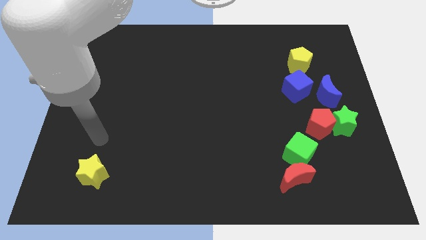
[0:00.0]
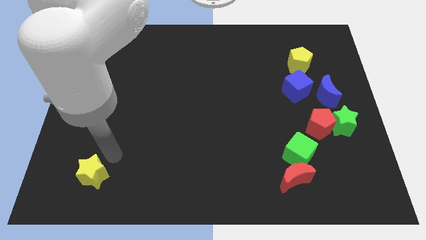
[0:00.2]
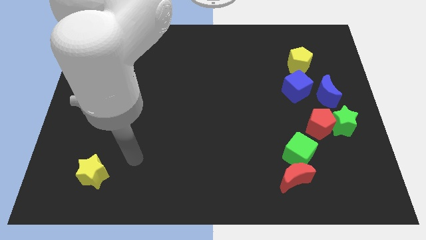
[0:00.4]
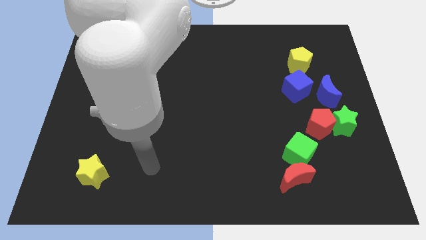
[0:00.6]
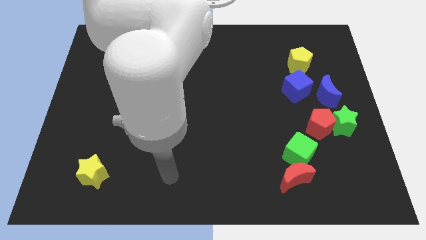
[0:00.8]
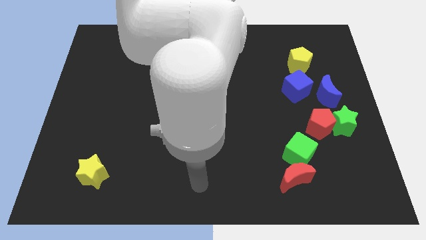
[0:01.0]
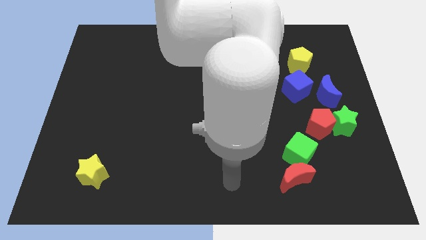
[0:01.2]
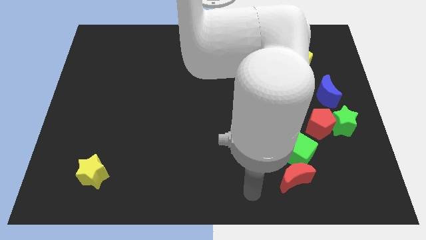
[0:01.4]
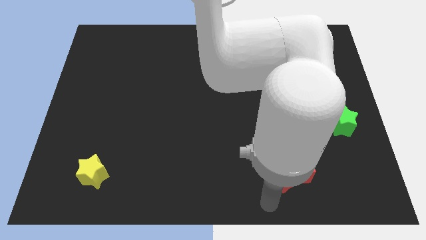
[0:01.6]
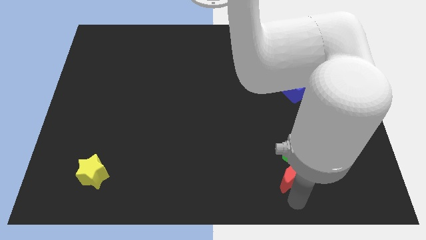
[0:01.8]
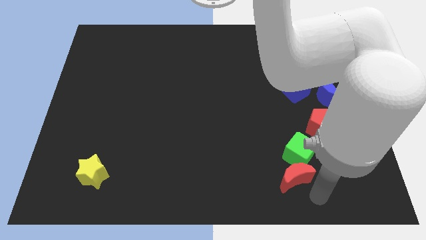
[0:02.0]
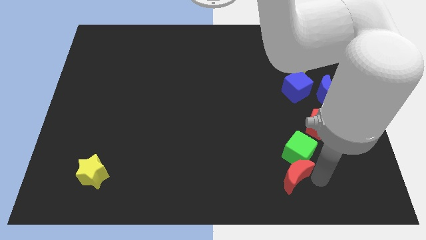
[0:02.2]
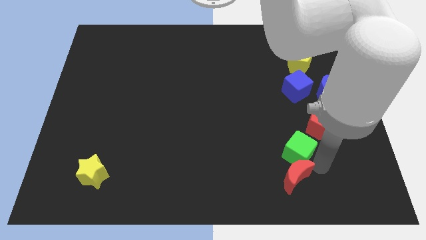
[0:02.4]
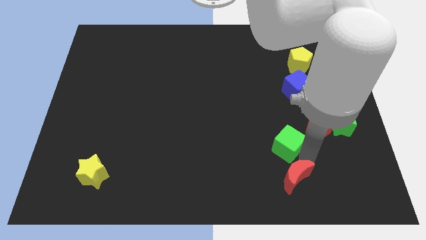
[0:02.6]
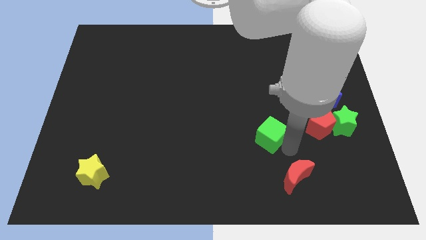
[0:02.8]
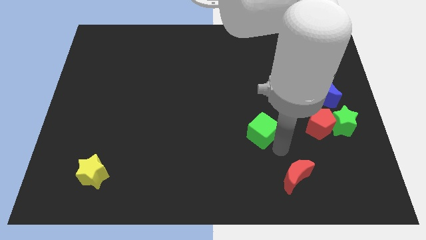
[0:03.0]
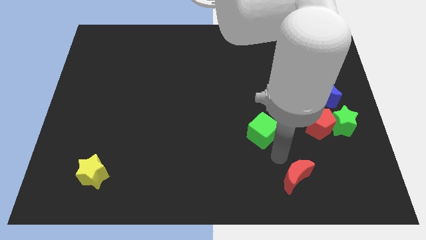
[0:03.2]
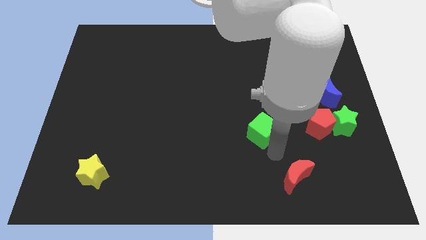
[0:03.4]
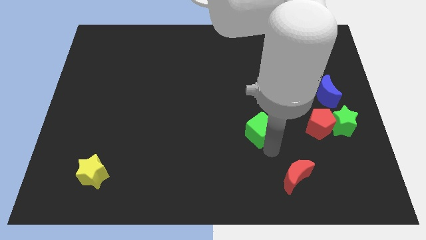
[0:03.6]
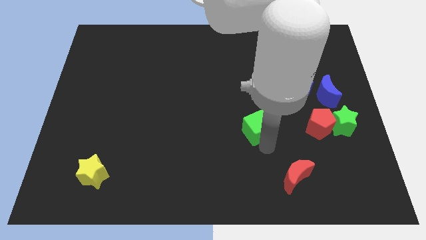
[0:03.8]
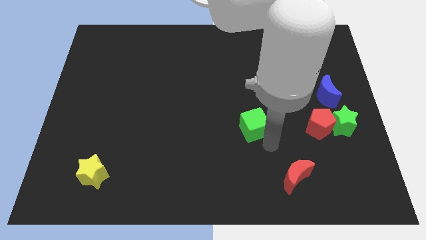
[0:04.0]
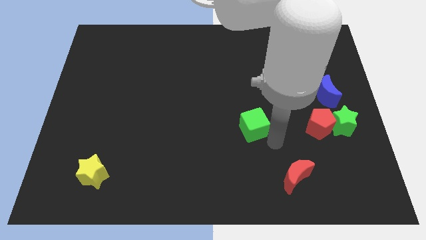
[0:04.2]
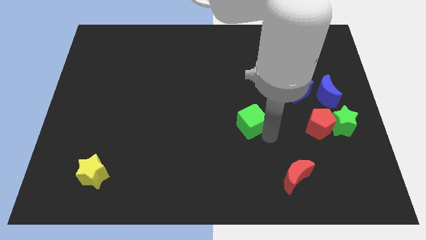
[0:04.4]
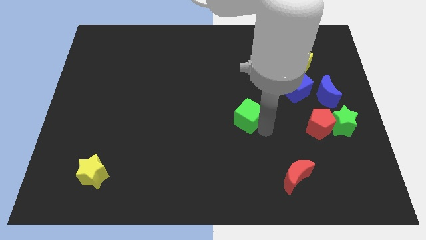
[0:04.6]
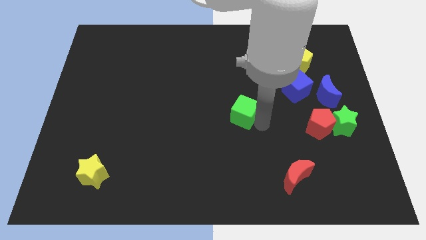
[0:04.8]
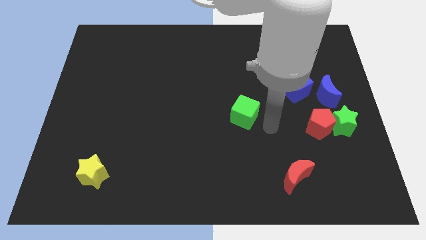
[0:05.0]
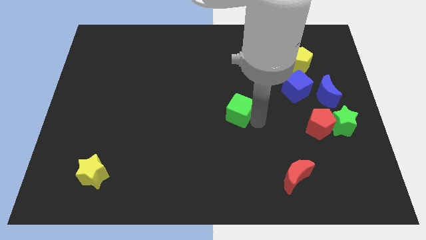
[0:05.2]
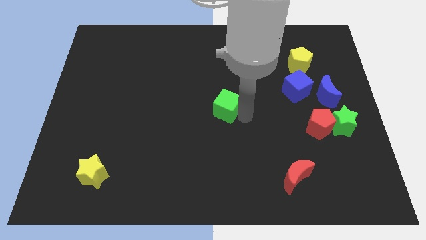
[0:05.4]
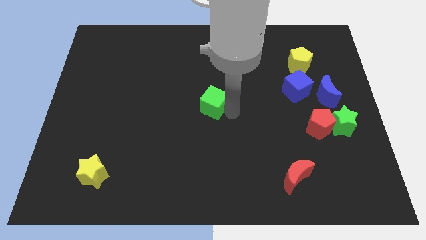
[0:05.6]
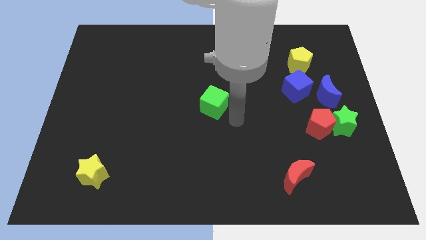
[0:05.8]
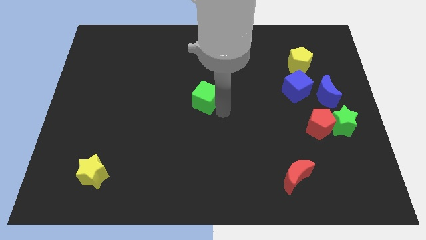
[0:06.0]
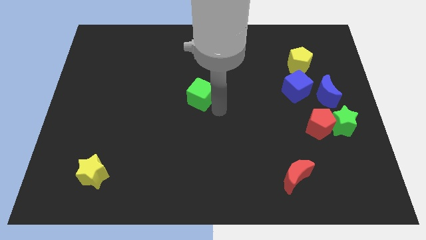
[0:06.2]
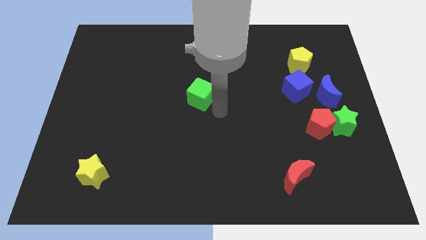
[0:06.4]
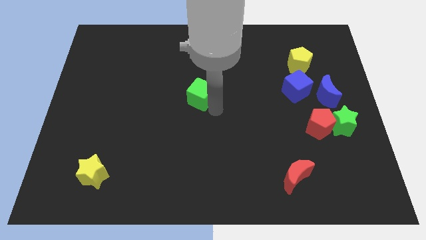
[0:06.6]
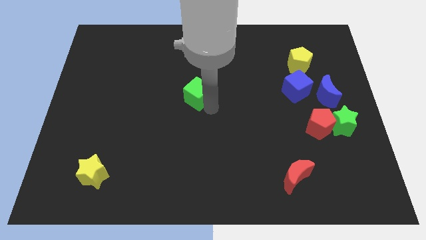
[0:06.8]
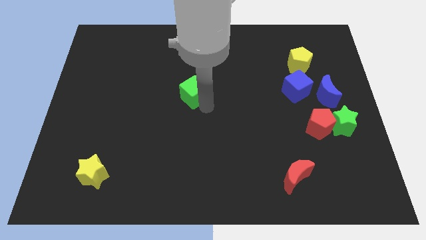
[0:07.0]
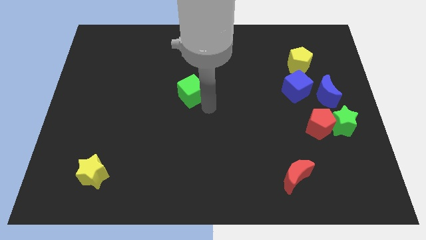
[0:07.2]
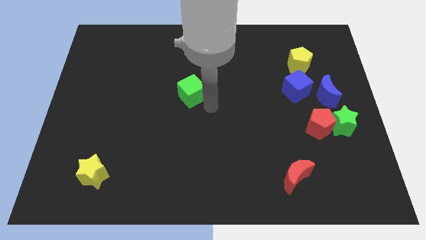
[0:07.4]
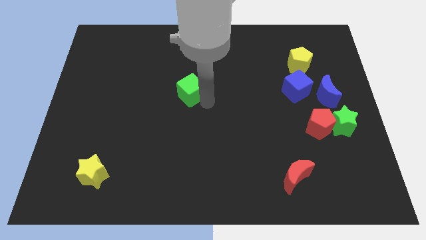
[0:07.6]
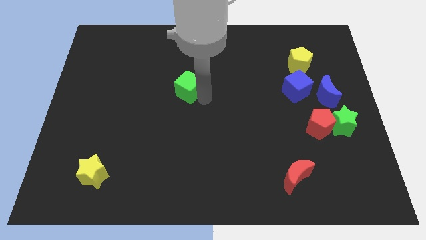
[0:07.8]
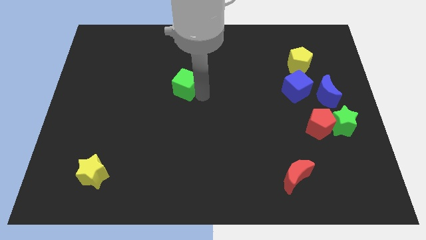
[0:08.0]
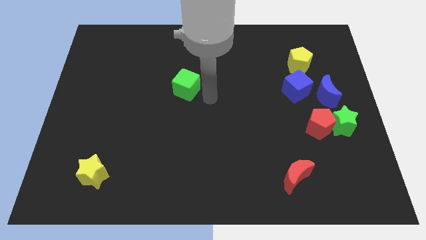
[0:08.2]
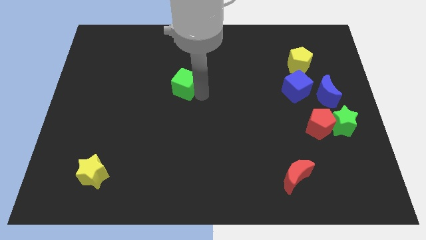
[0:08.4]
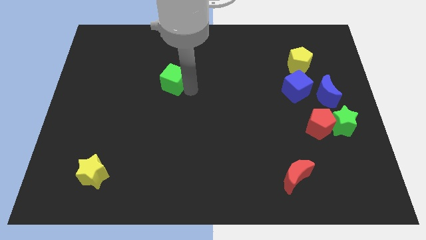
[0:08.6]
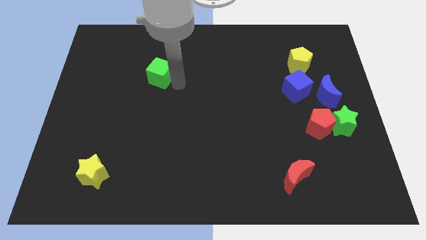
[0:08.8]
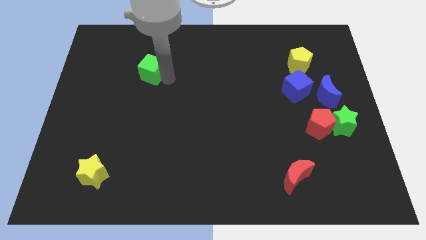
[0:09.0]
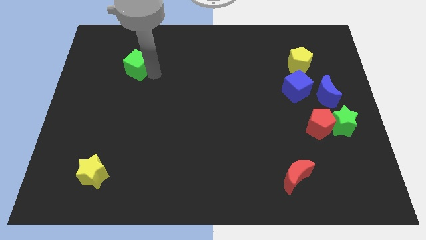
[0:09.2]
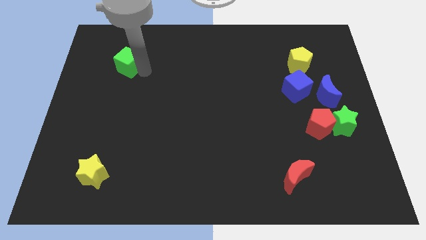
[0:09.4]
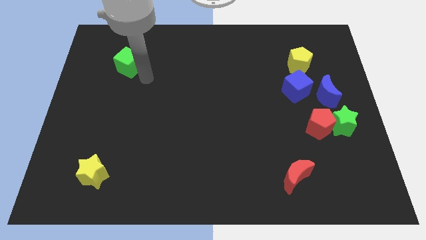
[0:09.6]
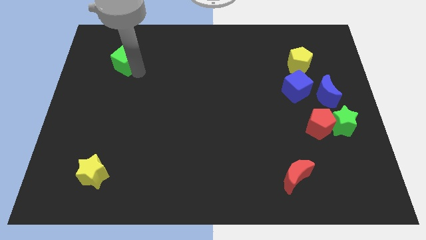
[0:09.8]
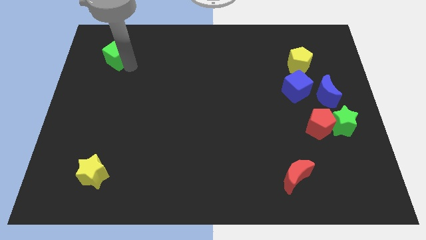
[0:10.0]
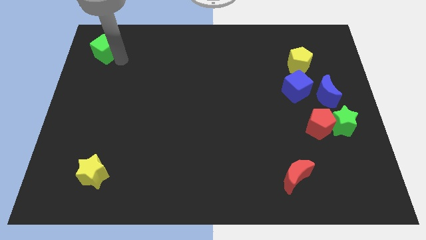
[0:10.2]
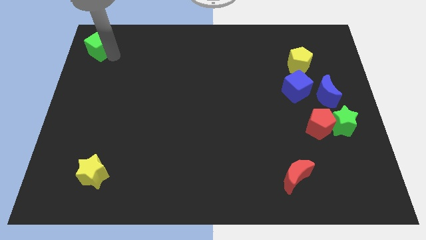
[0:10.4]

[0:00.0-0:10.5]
move the green cube to the top left corner
